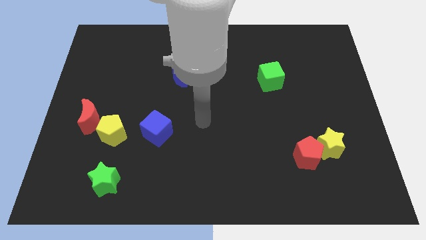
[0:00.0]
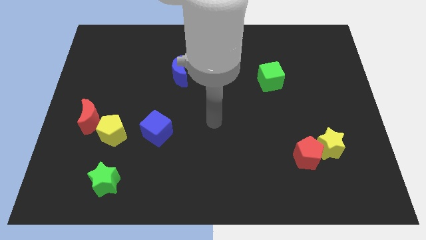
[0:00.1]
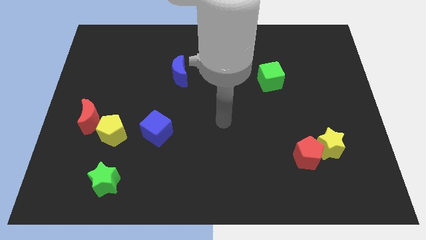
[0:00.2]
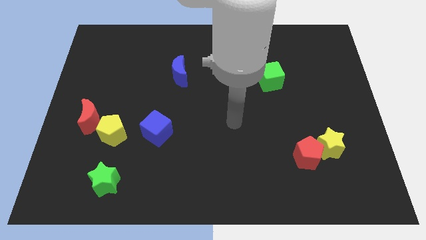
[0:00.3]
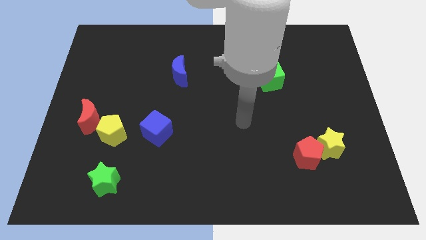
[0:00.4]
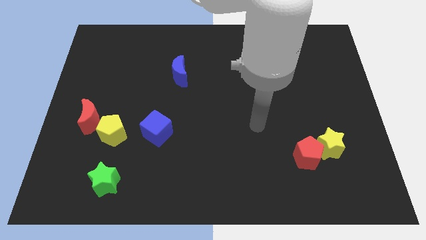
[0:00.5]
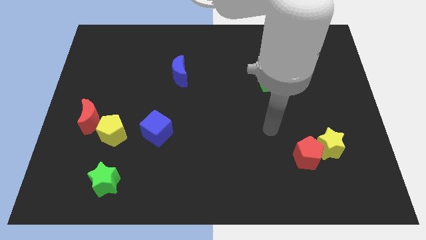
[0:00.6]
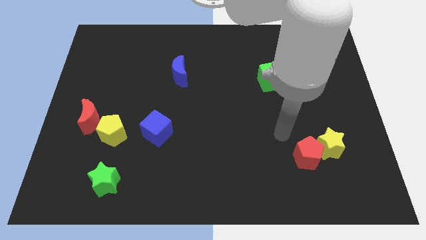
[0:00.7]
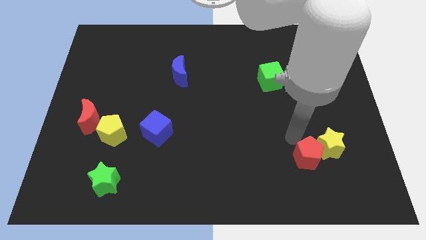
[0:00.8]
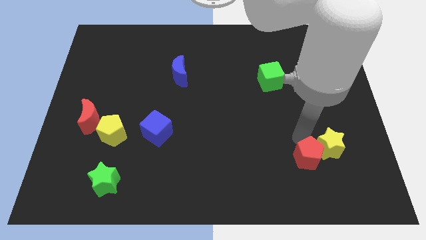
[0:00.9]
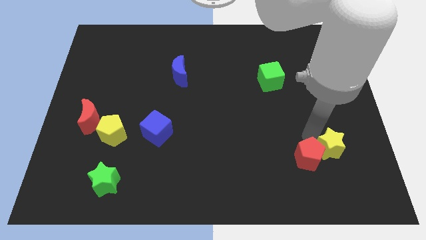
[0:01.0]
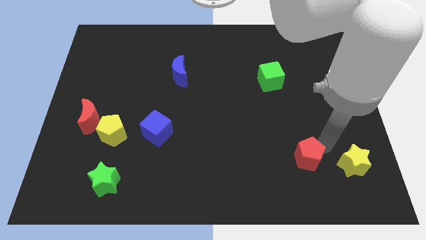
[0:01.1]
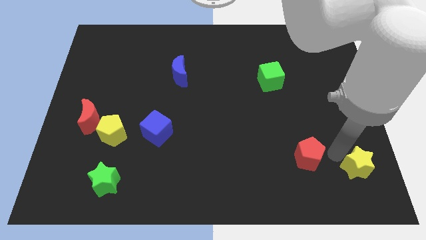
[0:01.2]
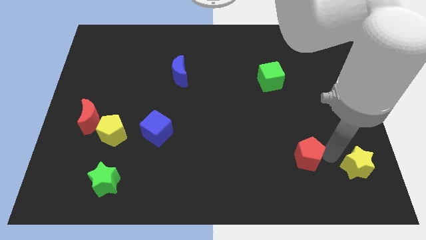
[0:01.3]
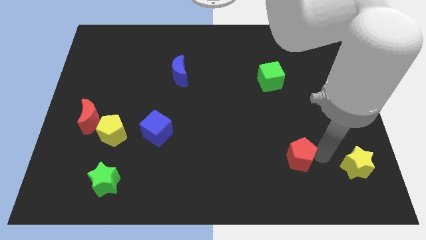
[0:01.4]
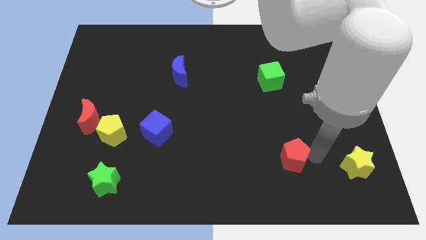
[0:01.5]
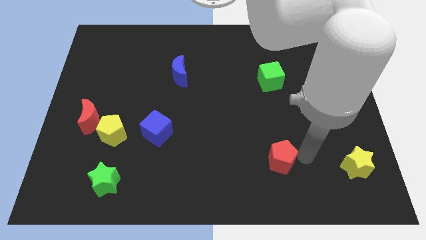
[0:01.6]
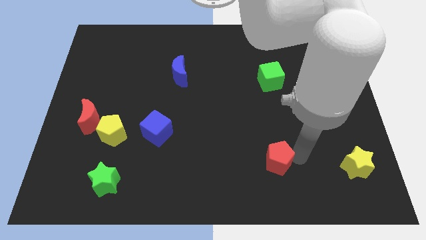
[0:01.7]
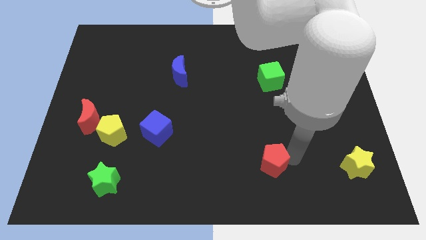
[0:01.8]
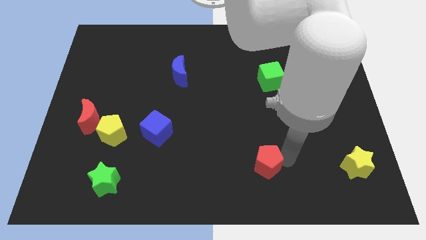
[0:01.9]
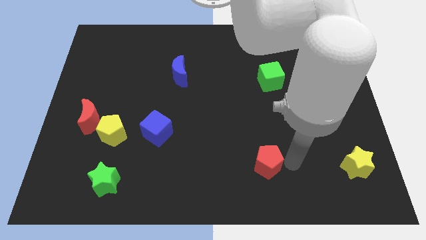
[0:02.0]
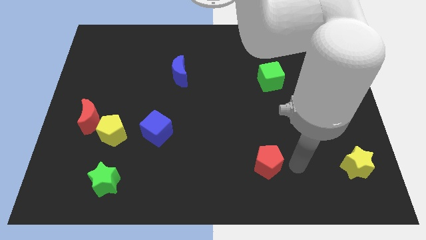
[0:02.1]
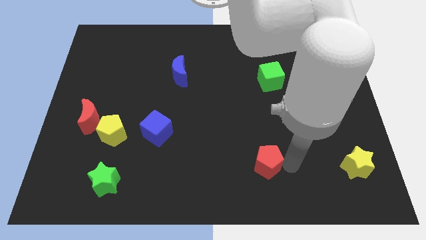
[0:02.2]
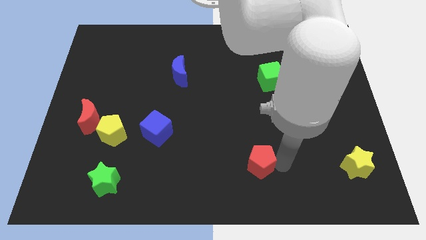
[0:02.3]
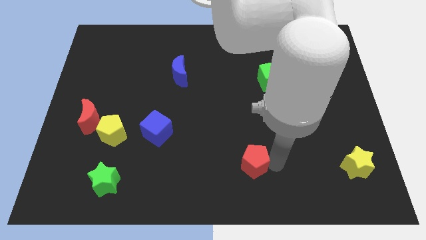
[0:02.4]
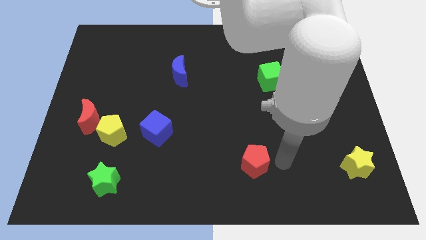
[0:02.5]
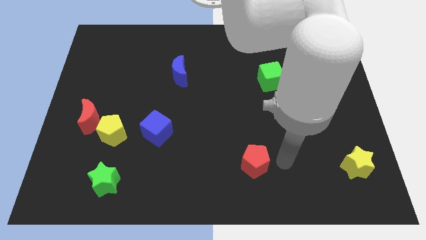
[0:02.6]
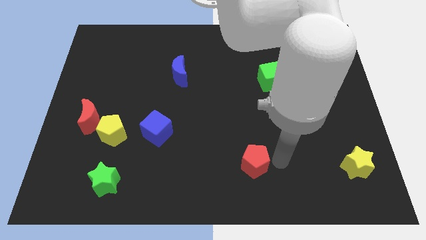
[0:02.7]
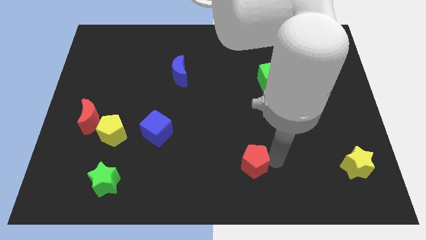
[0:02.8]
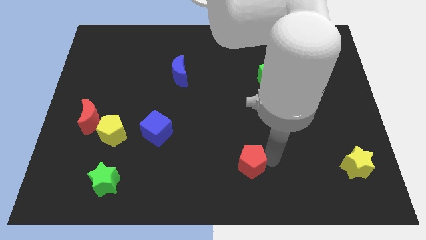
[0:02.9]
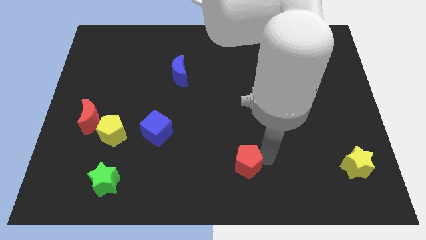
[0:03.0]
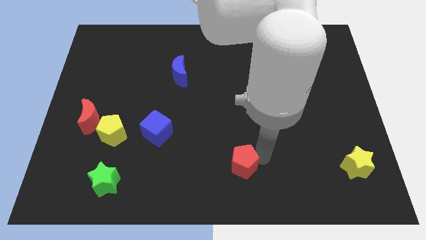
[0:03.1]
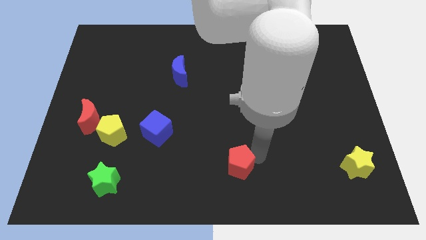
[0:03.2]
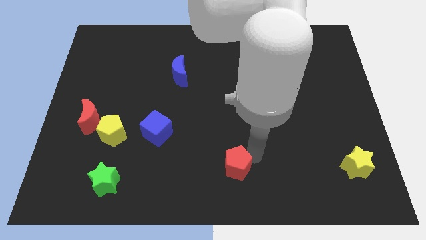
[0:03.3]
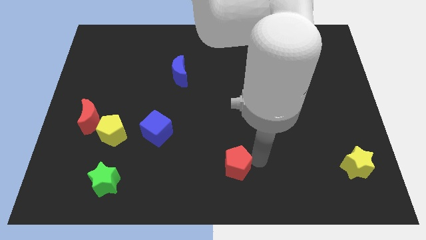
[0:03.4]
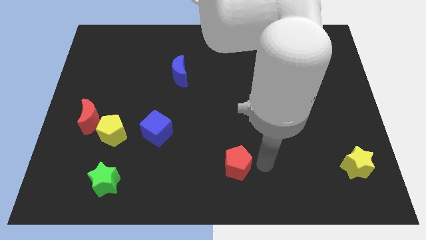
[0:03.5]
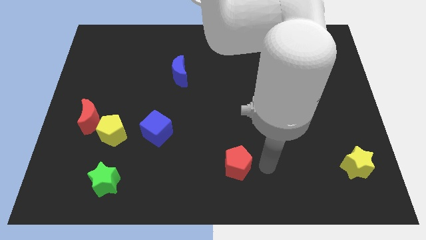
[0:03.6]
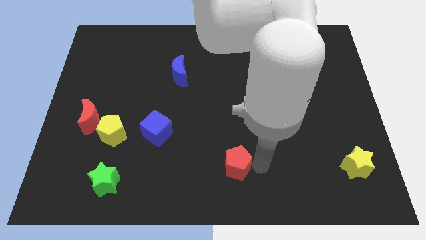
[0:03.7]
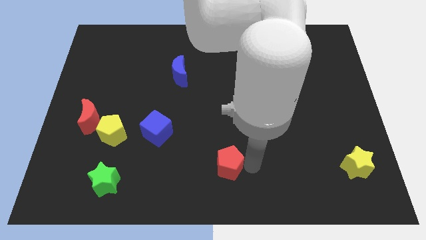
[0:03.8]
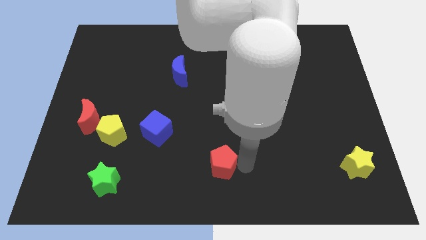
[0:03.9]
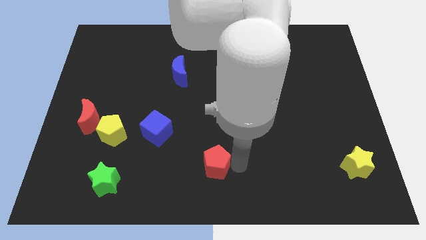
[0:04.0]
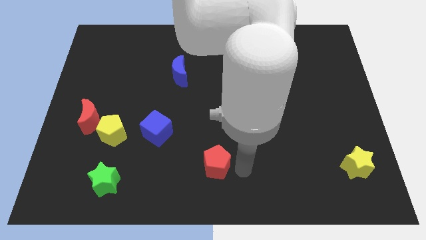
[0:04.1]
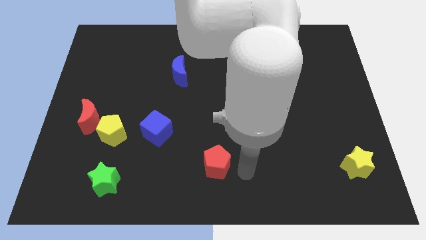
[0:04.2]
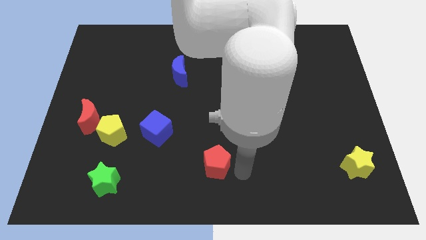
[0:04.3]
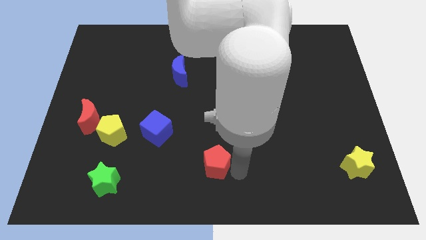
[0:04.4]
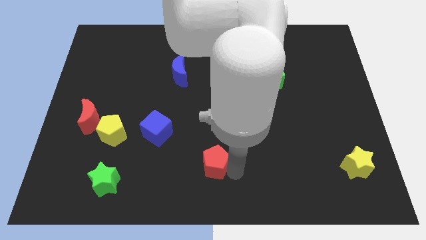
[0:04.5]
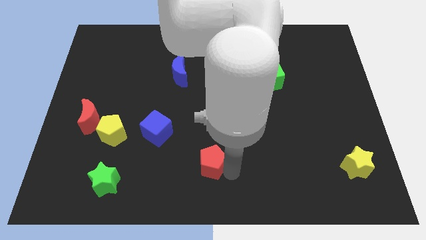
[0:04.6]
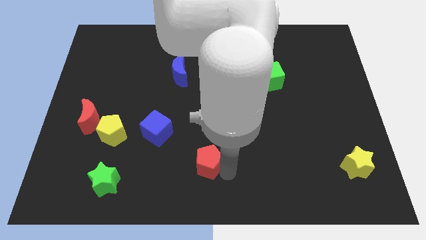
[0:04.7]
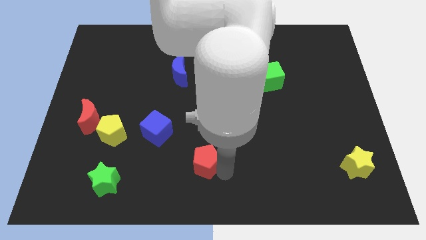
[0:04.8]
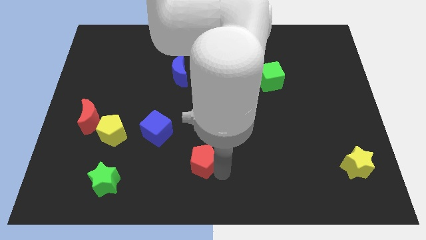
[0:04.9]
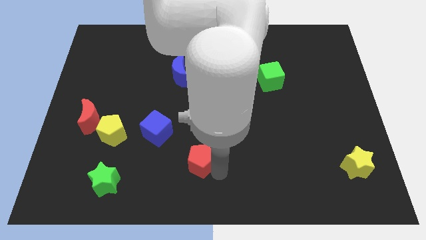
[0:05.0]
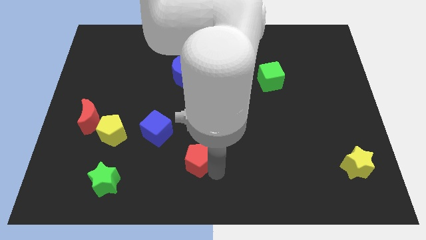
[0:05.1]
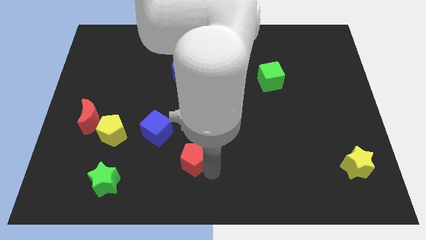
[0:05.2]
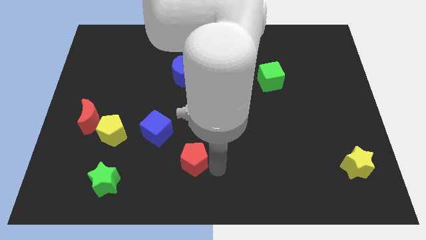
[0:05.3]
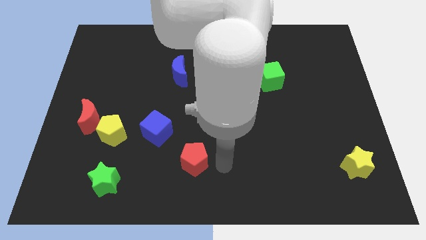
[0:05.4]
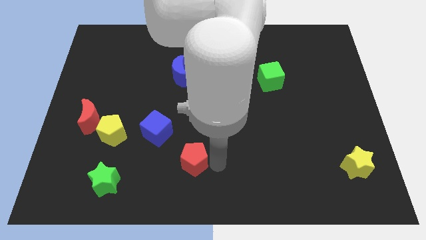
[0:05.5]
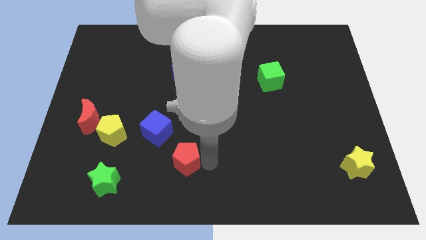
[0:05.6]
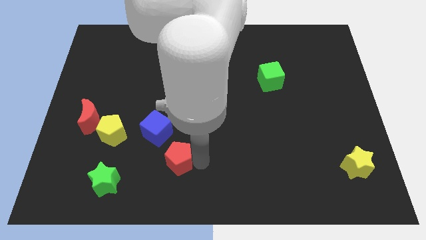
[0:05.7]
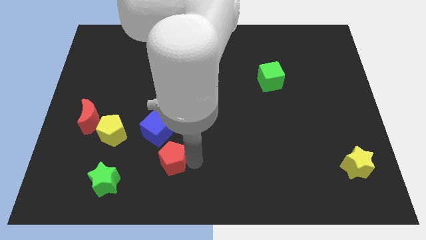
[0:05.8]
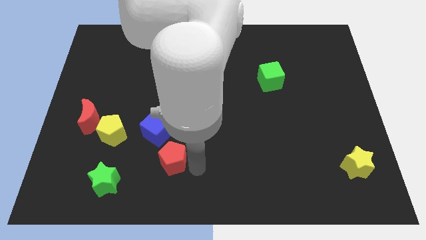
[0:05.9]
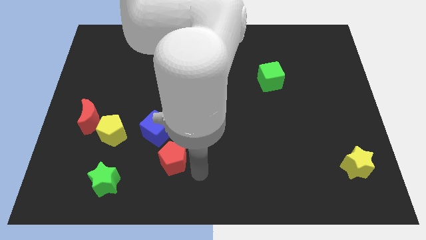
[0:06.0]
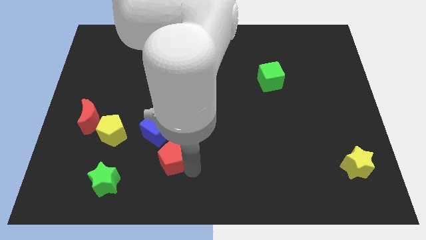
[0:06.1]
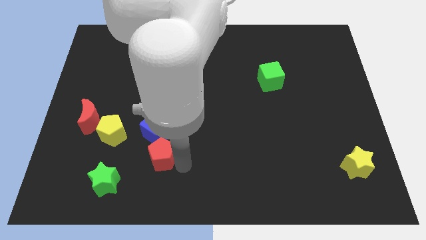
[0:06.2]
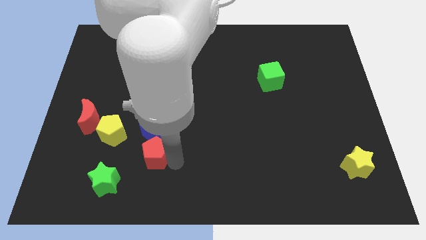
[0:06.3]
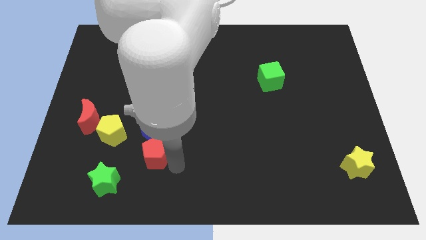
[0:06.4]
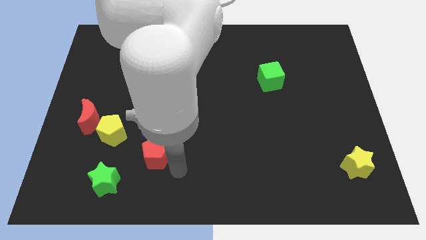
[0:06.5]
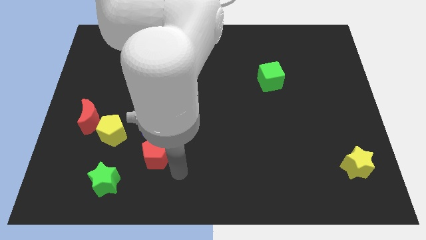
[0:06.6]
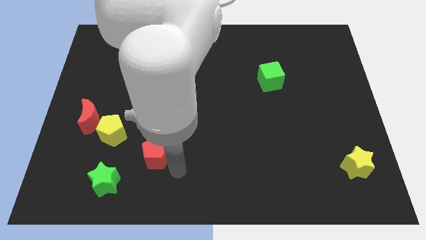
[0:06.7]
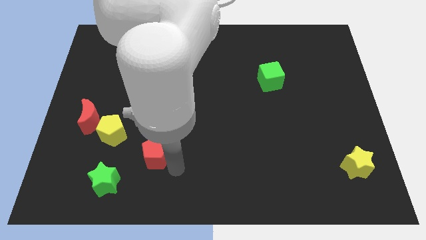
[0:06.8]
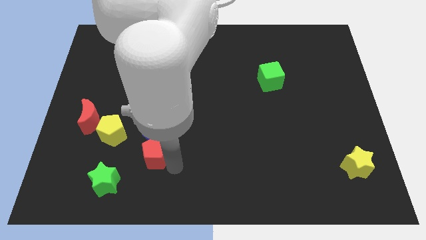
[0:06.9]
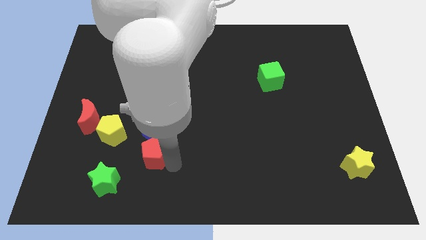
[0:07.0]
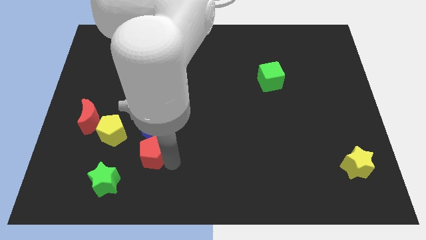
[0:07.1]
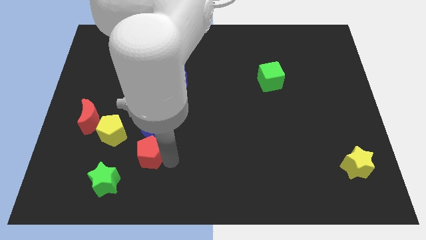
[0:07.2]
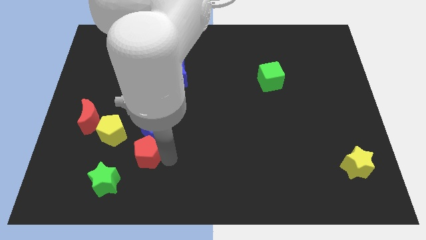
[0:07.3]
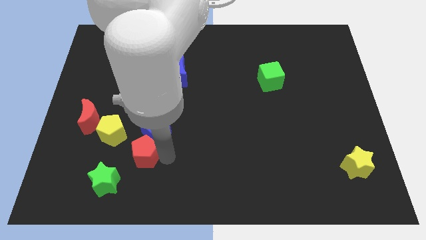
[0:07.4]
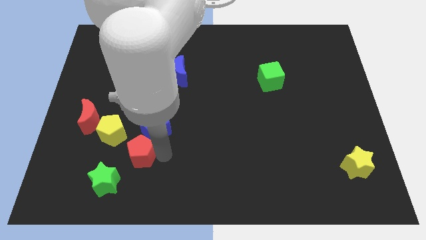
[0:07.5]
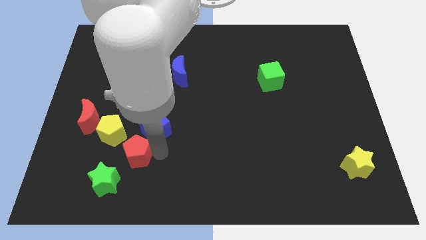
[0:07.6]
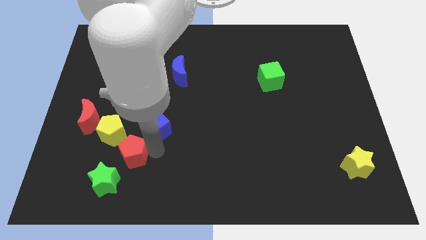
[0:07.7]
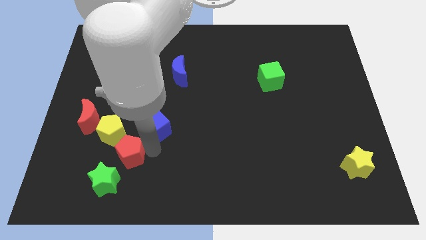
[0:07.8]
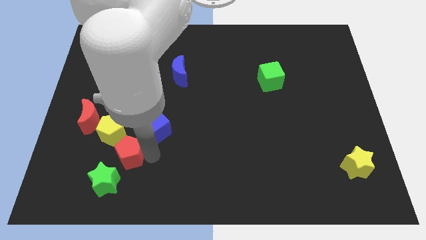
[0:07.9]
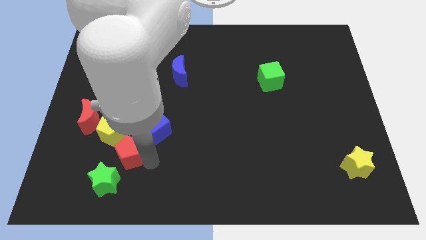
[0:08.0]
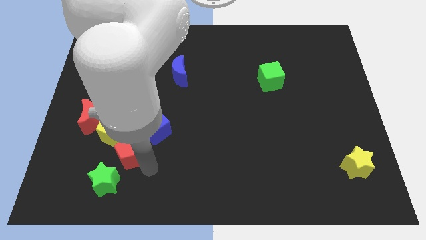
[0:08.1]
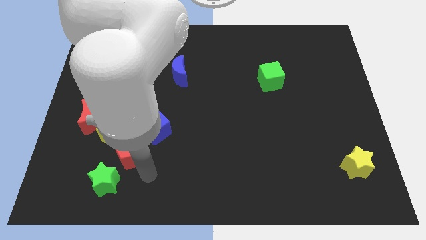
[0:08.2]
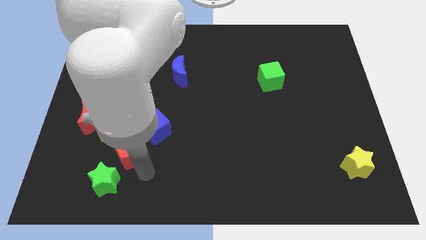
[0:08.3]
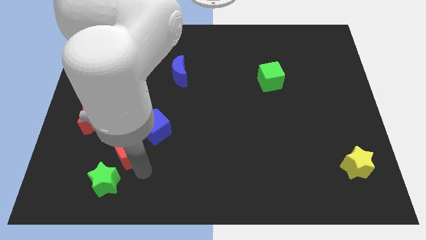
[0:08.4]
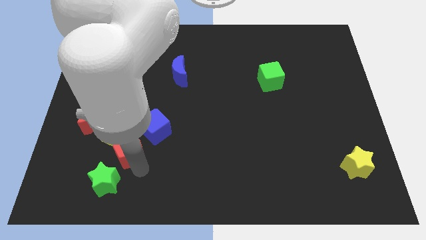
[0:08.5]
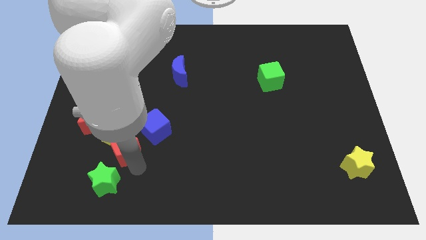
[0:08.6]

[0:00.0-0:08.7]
put the red pentagon next to the yellow pentagon
